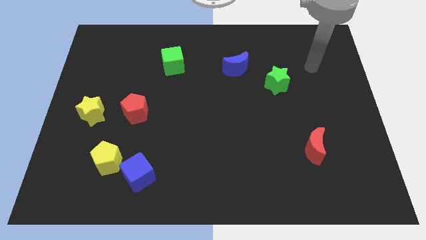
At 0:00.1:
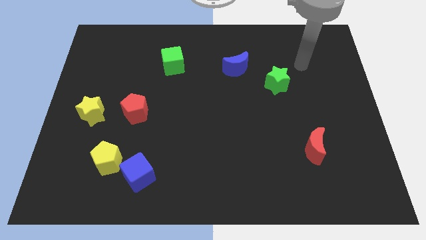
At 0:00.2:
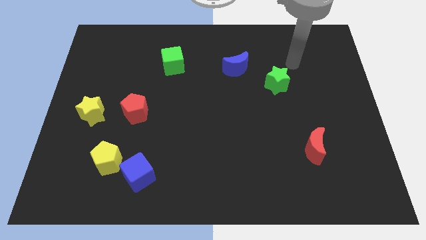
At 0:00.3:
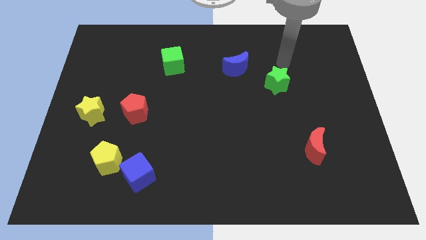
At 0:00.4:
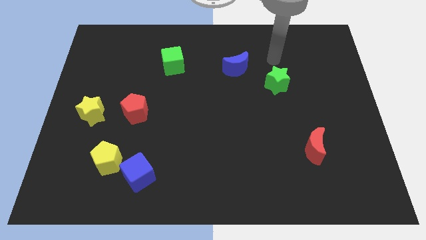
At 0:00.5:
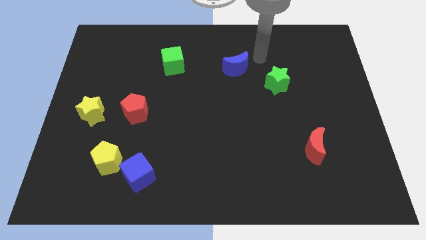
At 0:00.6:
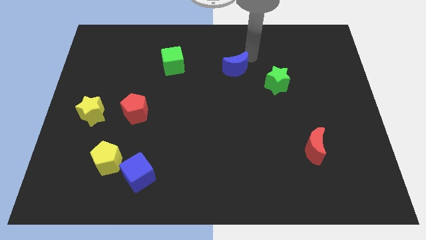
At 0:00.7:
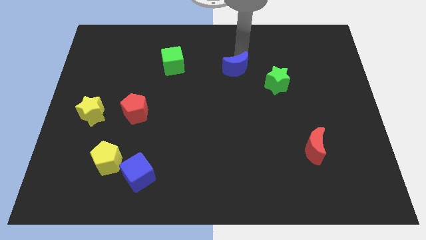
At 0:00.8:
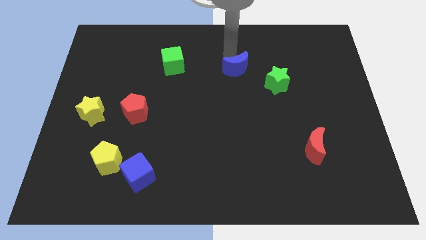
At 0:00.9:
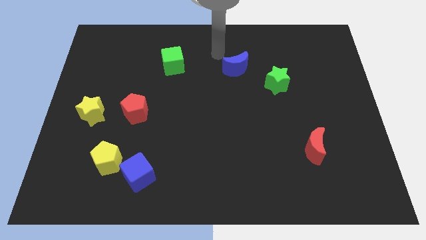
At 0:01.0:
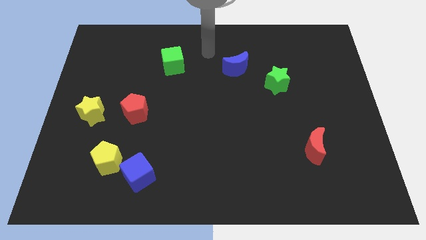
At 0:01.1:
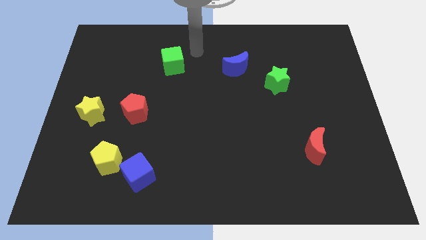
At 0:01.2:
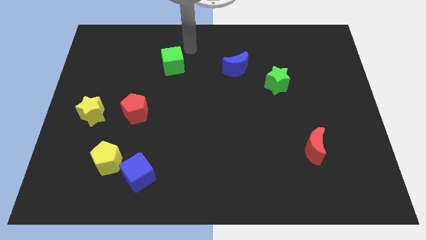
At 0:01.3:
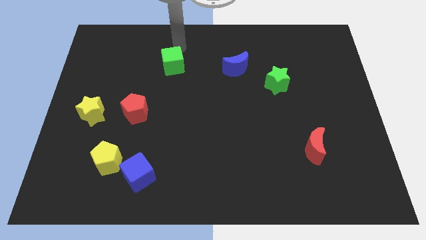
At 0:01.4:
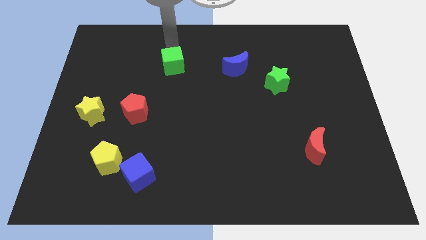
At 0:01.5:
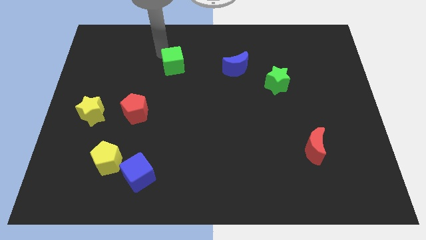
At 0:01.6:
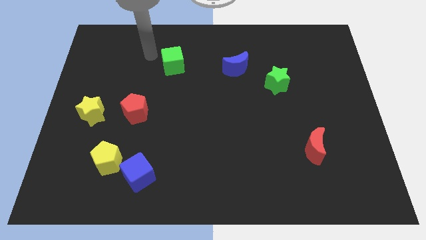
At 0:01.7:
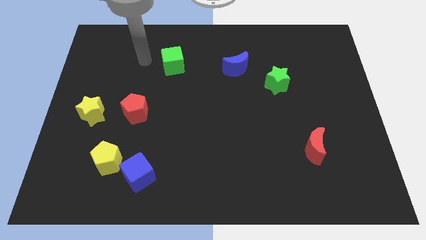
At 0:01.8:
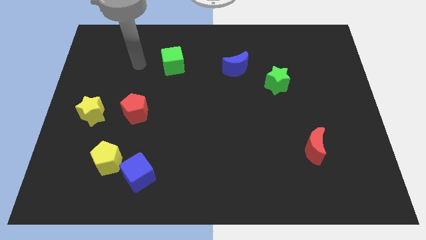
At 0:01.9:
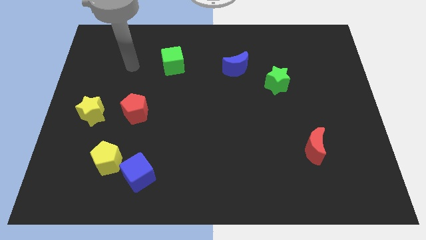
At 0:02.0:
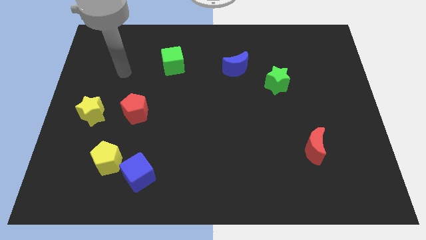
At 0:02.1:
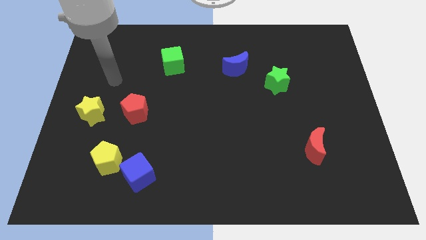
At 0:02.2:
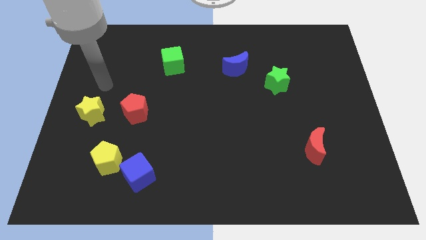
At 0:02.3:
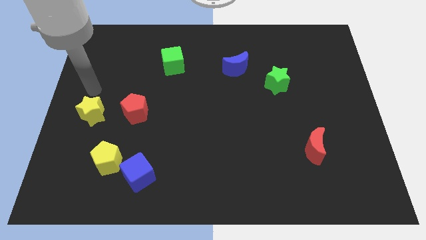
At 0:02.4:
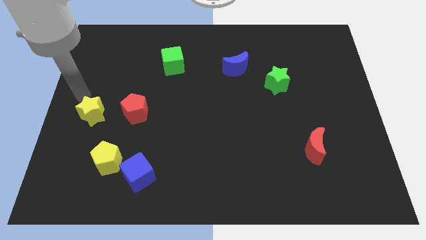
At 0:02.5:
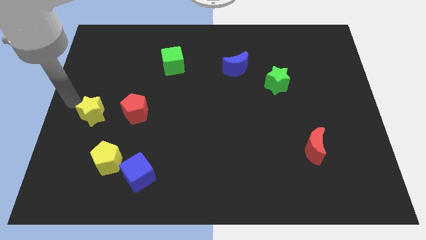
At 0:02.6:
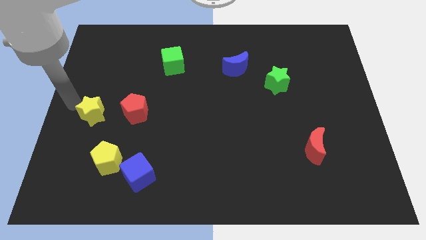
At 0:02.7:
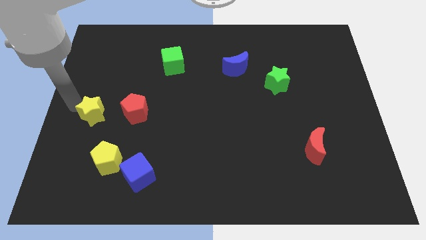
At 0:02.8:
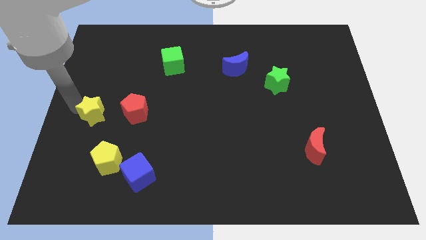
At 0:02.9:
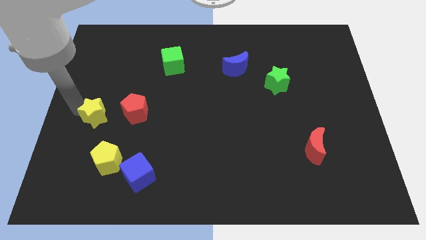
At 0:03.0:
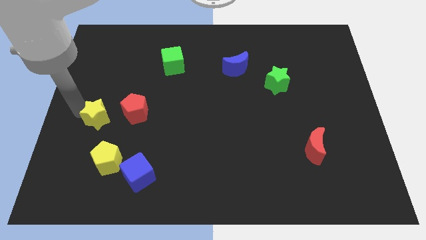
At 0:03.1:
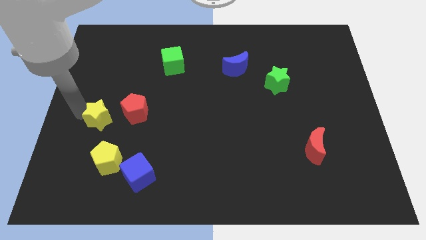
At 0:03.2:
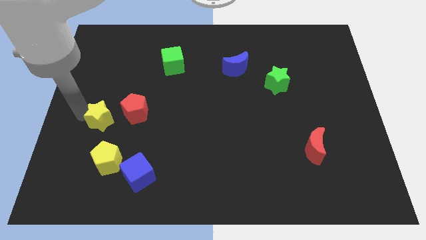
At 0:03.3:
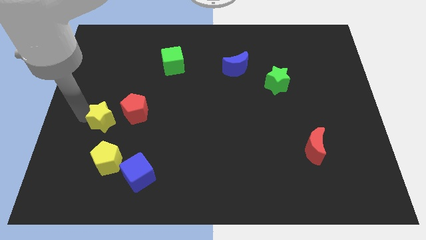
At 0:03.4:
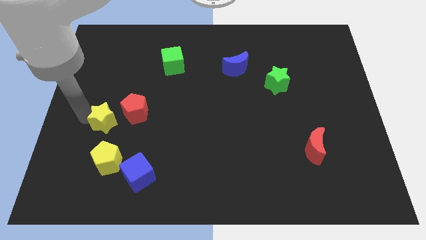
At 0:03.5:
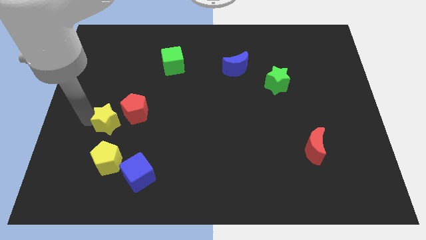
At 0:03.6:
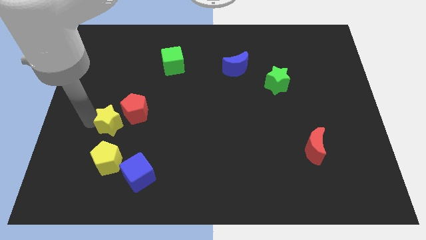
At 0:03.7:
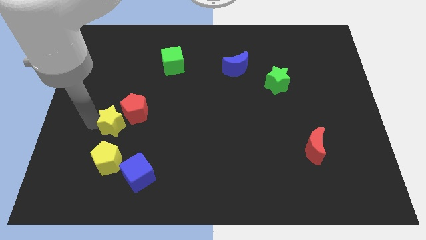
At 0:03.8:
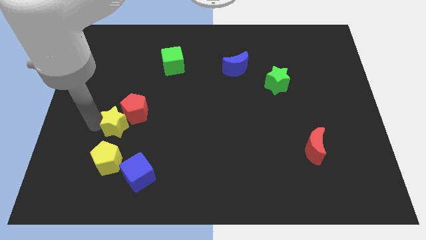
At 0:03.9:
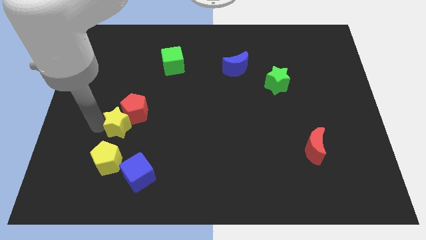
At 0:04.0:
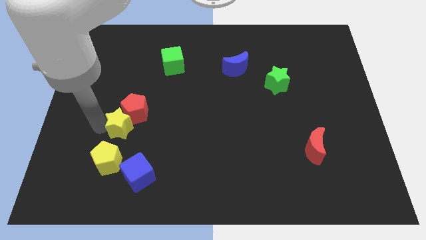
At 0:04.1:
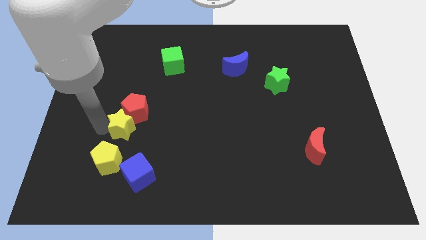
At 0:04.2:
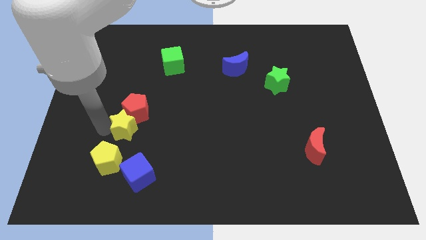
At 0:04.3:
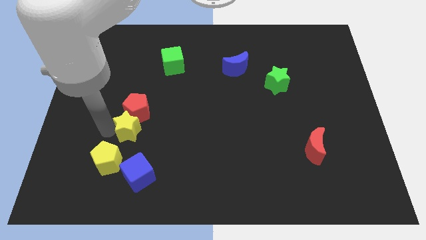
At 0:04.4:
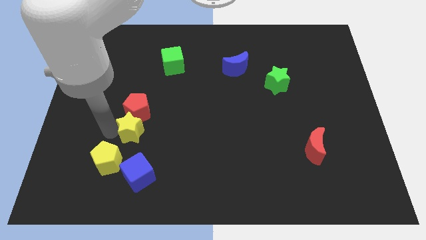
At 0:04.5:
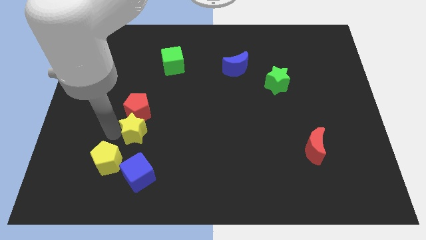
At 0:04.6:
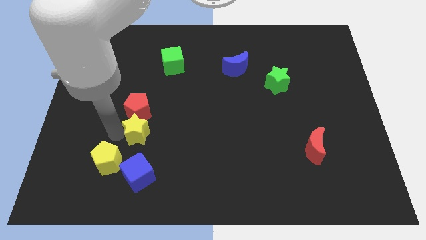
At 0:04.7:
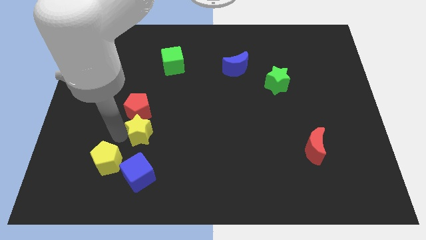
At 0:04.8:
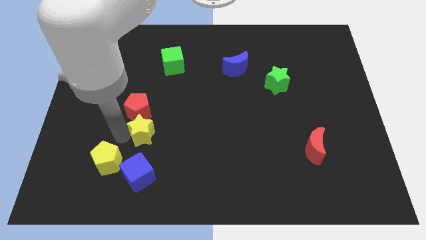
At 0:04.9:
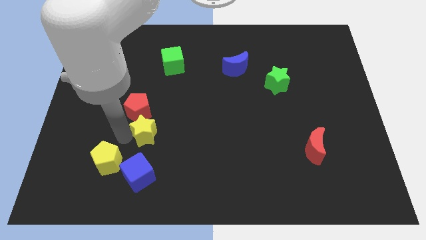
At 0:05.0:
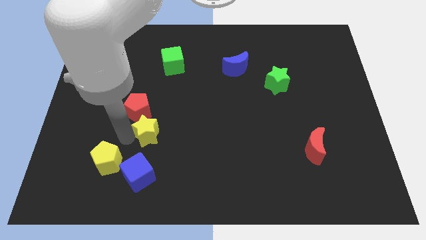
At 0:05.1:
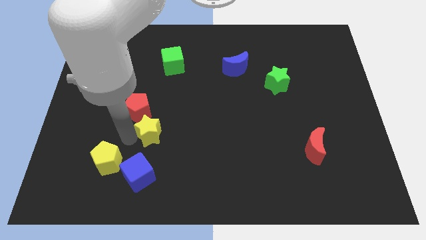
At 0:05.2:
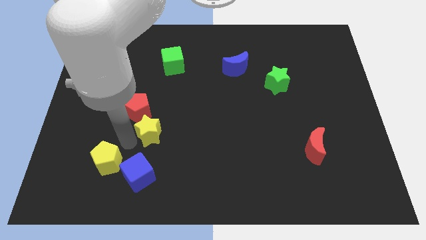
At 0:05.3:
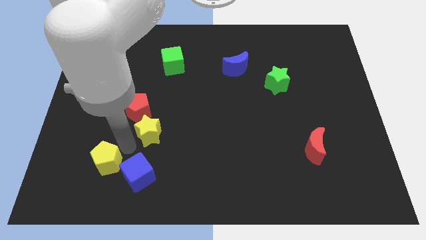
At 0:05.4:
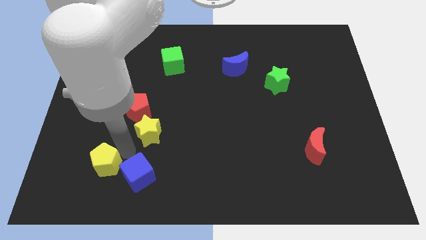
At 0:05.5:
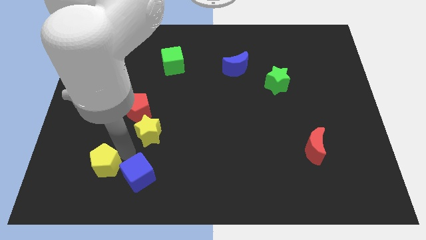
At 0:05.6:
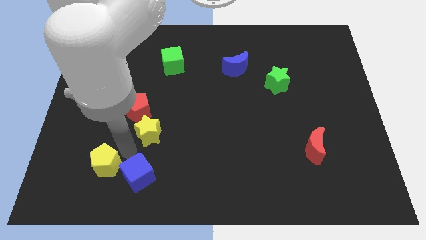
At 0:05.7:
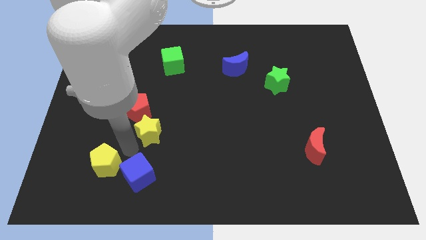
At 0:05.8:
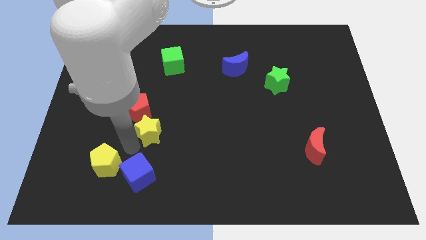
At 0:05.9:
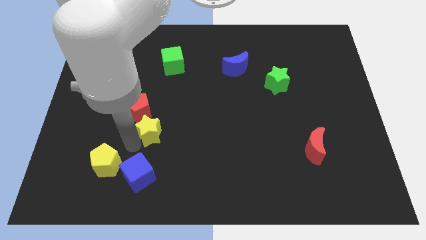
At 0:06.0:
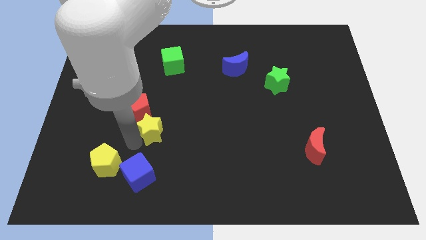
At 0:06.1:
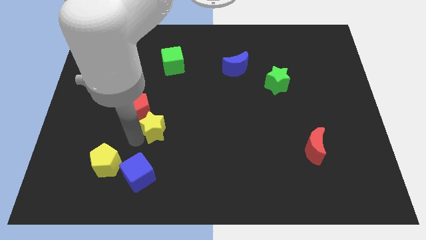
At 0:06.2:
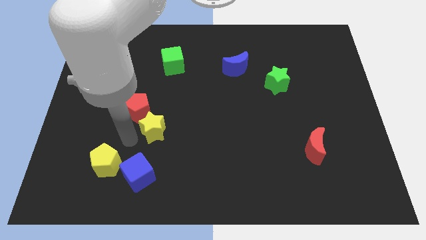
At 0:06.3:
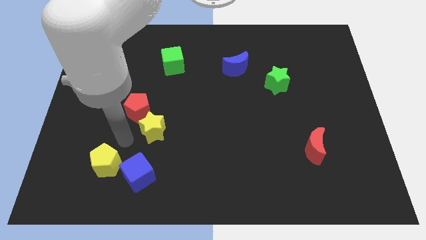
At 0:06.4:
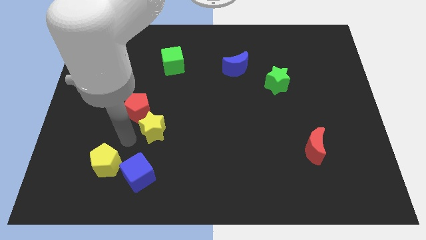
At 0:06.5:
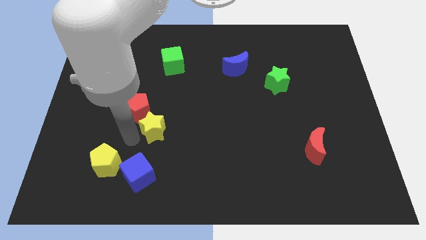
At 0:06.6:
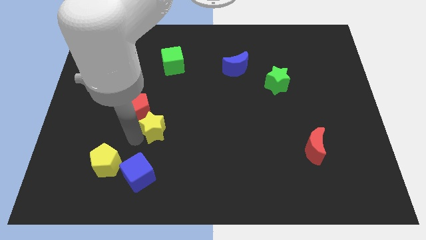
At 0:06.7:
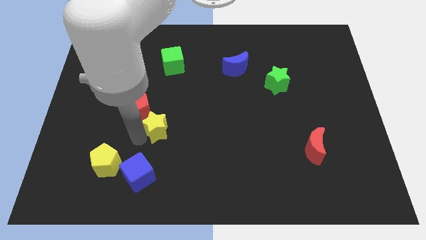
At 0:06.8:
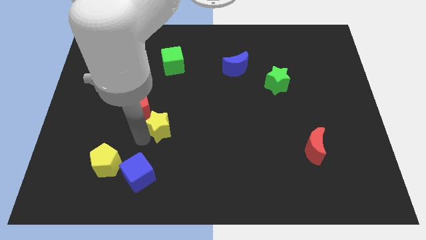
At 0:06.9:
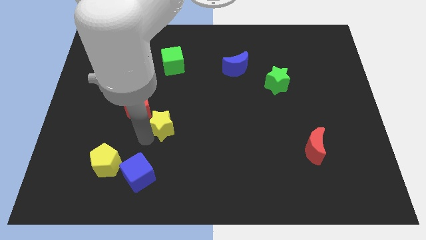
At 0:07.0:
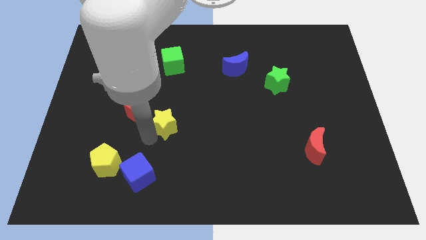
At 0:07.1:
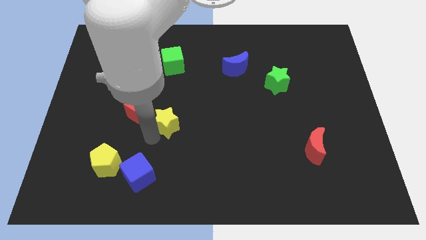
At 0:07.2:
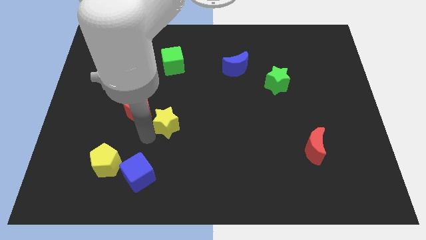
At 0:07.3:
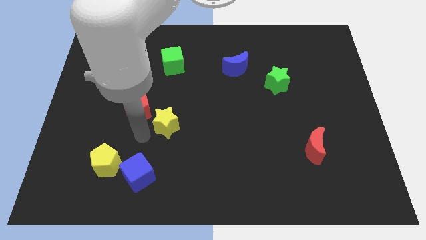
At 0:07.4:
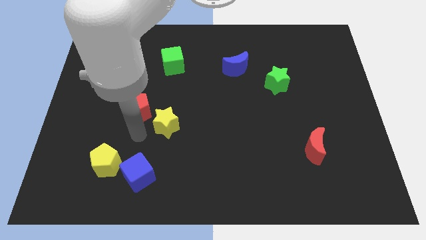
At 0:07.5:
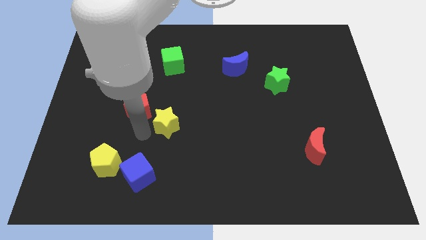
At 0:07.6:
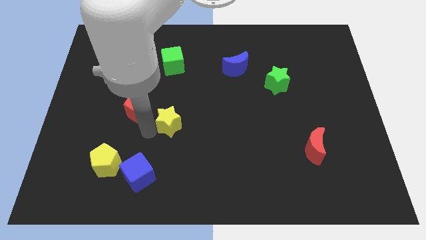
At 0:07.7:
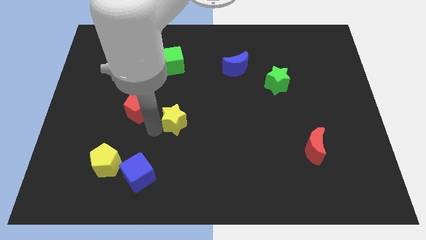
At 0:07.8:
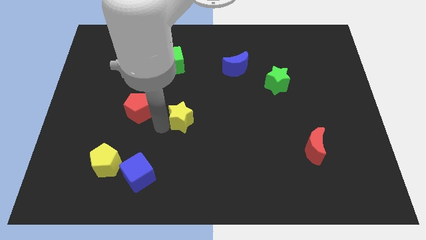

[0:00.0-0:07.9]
move the yellow star to the right
